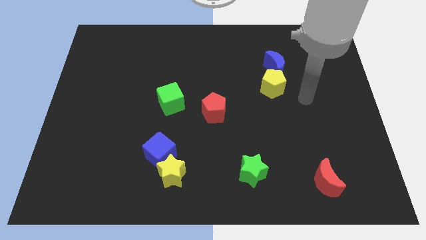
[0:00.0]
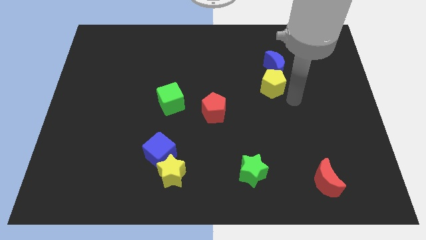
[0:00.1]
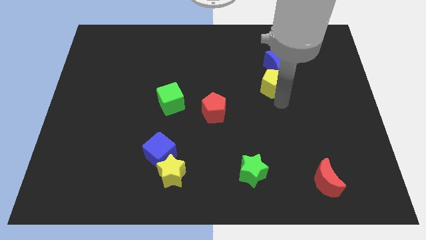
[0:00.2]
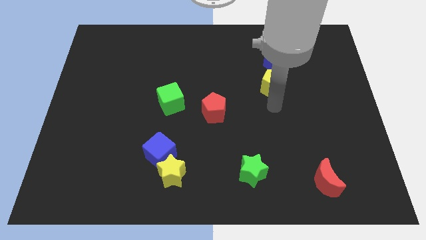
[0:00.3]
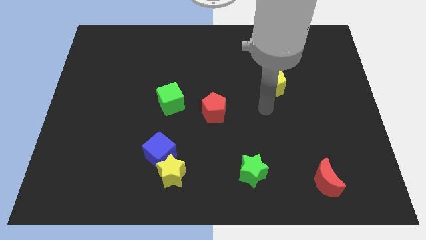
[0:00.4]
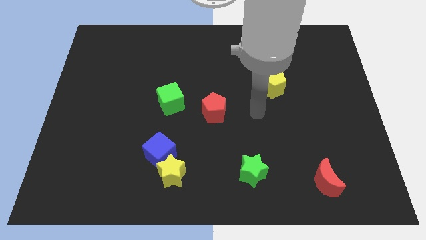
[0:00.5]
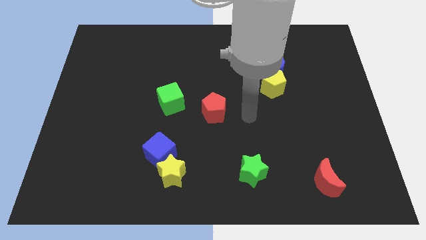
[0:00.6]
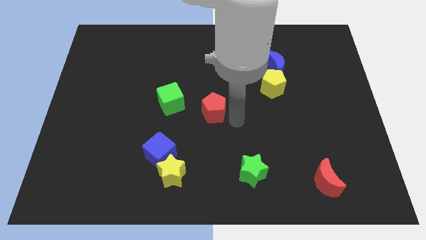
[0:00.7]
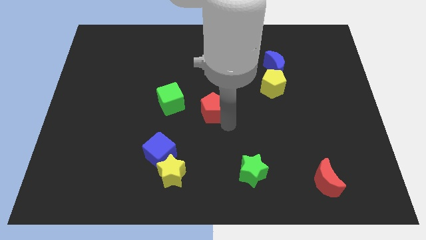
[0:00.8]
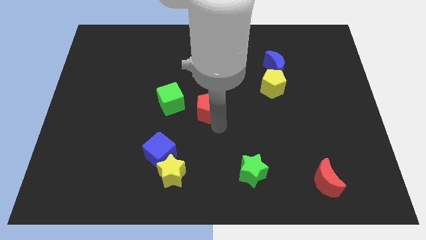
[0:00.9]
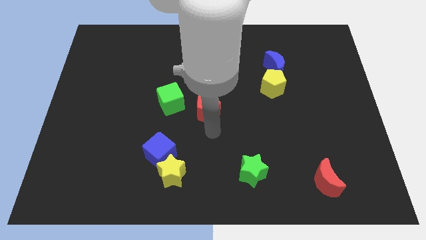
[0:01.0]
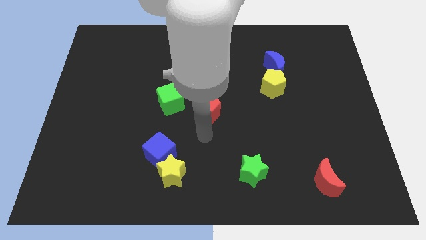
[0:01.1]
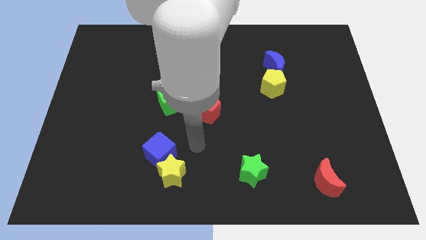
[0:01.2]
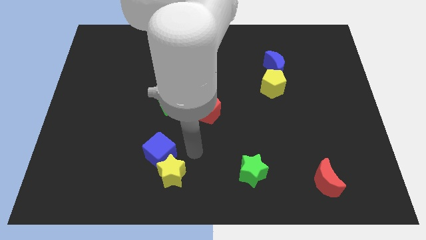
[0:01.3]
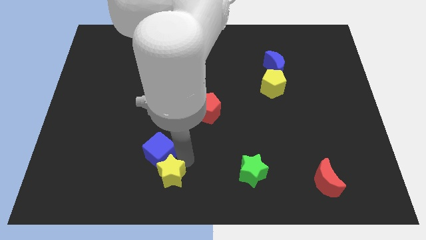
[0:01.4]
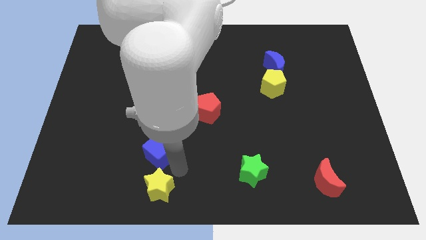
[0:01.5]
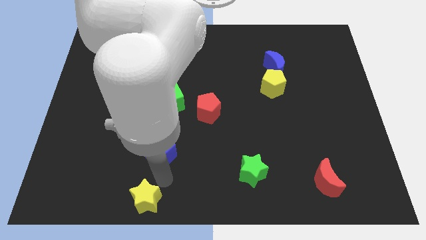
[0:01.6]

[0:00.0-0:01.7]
pull the blue cube apart from the yellow star

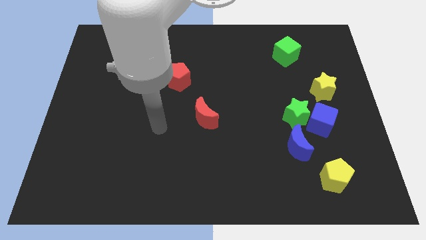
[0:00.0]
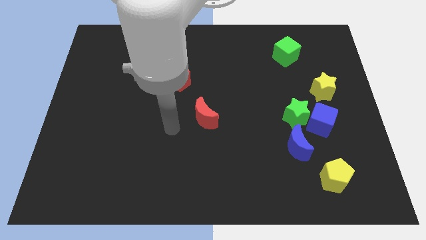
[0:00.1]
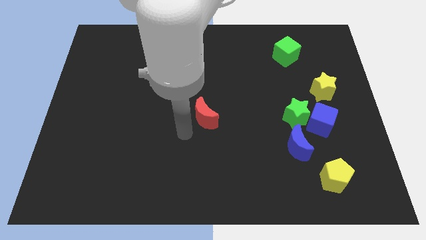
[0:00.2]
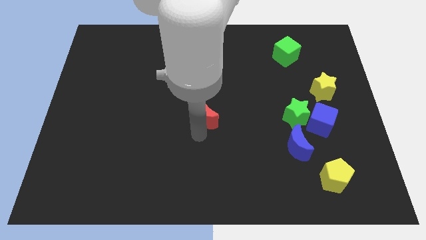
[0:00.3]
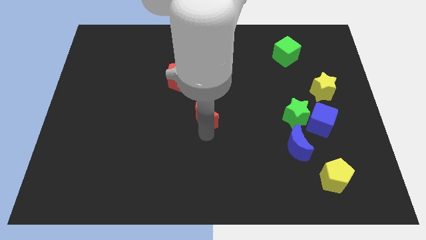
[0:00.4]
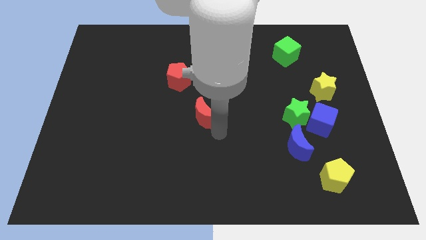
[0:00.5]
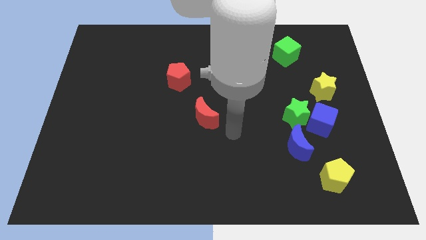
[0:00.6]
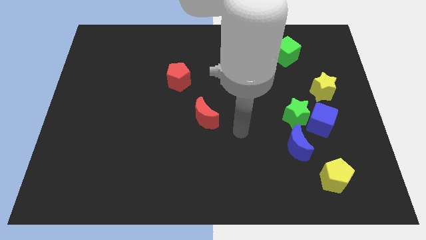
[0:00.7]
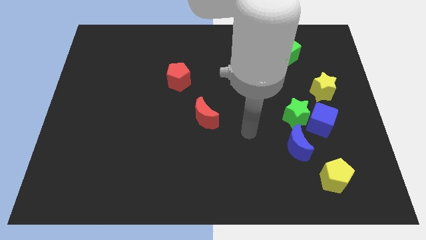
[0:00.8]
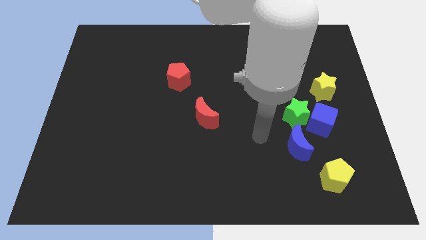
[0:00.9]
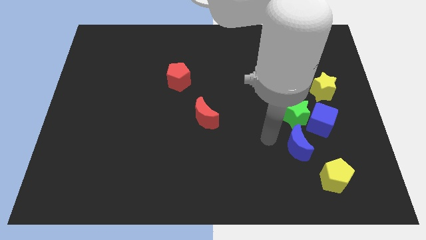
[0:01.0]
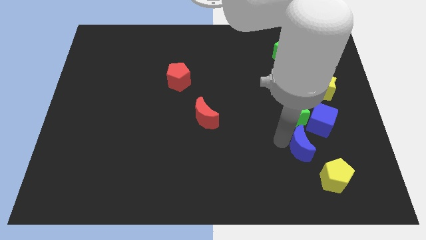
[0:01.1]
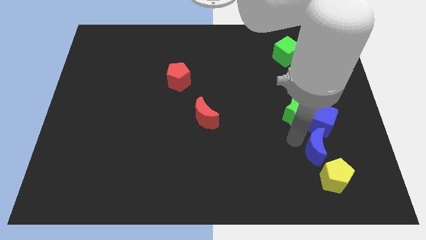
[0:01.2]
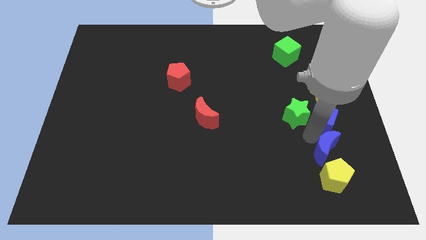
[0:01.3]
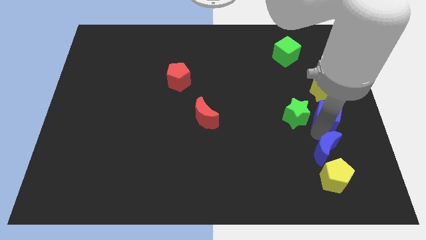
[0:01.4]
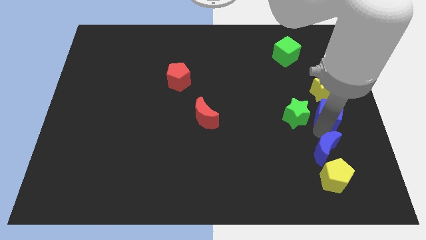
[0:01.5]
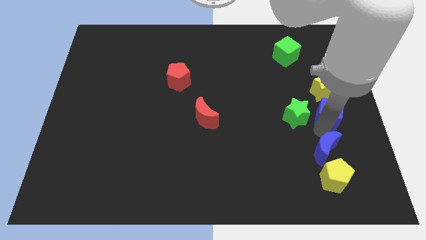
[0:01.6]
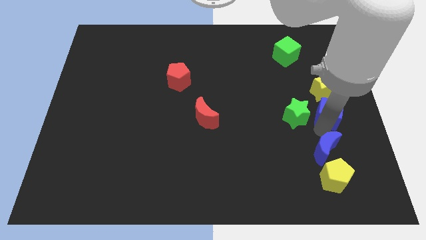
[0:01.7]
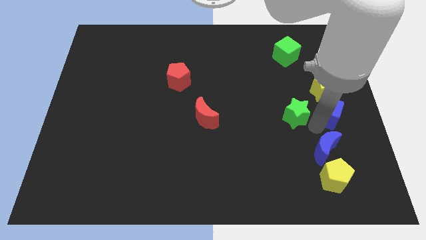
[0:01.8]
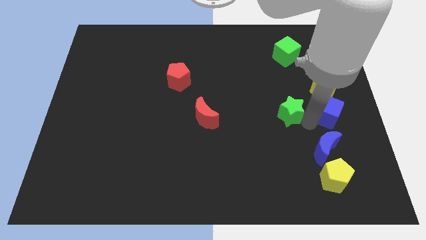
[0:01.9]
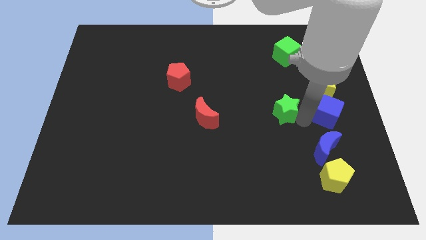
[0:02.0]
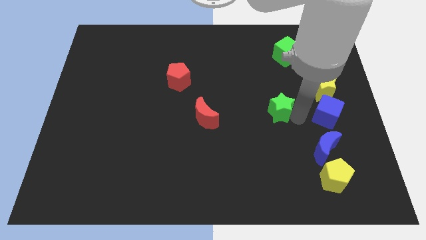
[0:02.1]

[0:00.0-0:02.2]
pull the green star apart from the blue cube and blue moon

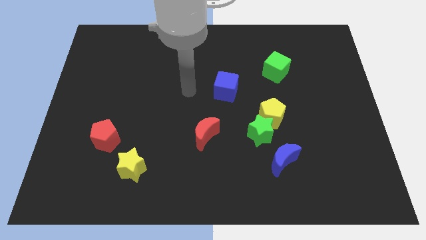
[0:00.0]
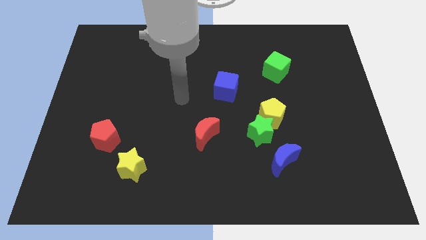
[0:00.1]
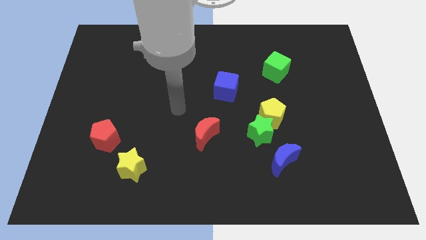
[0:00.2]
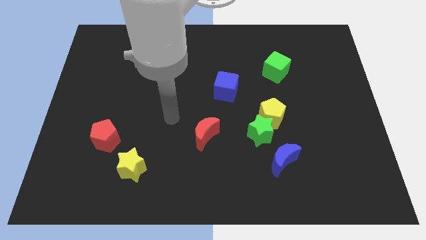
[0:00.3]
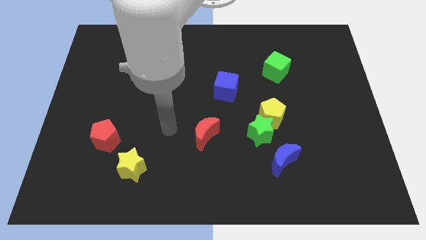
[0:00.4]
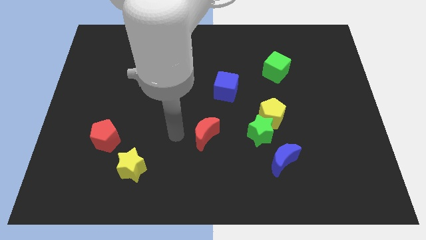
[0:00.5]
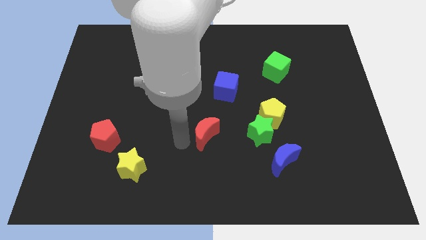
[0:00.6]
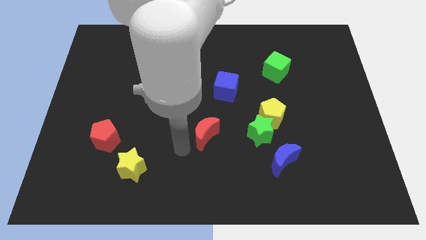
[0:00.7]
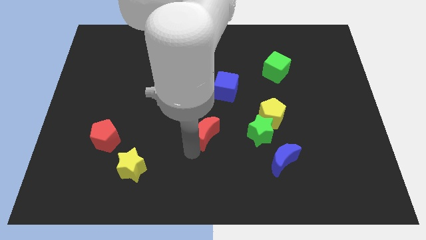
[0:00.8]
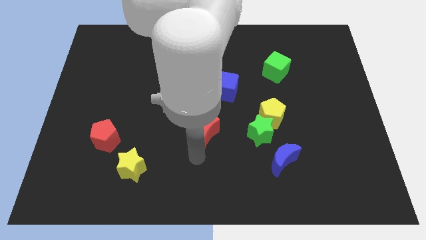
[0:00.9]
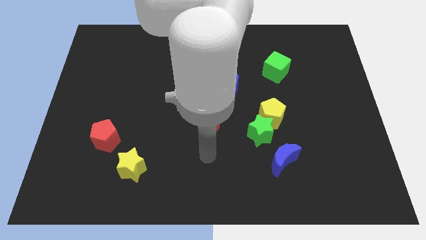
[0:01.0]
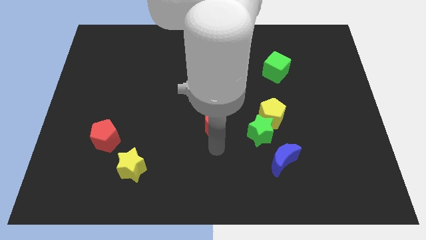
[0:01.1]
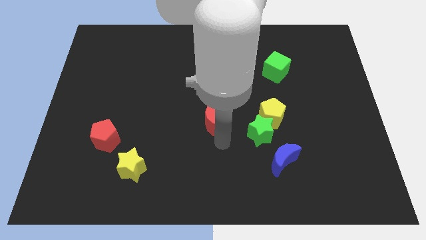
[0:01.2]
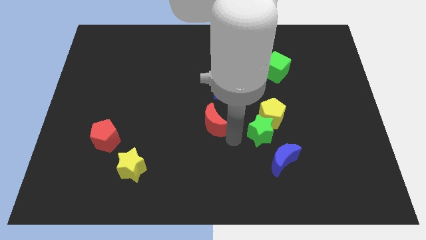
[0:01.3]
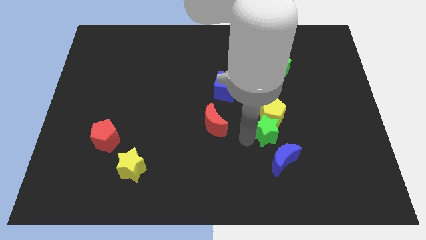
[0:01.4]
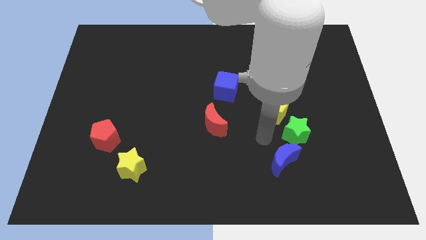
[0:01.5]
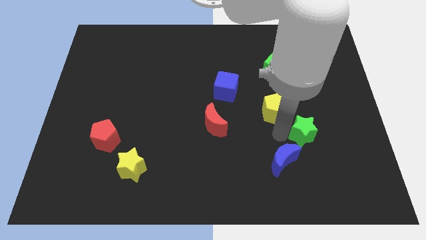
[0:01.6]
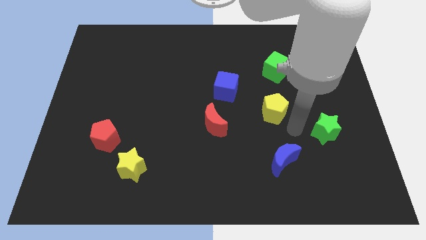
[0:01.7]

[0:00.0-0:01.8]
move the yellow pentagon away from the green star

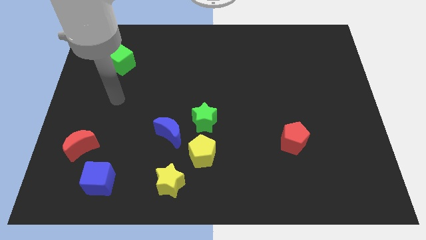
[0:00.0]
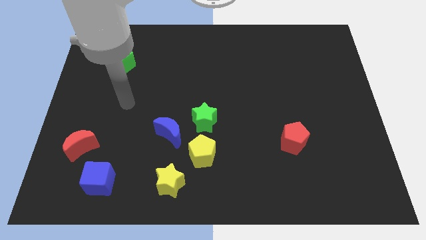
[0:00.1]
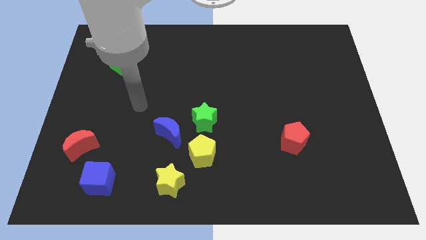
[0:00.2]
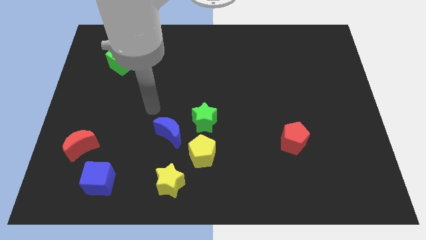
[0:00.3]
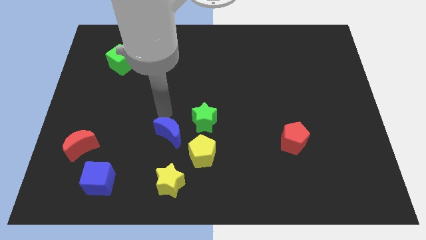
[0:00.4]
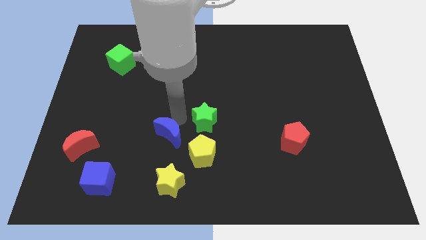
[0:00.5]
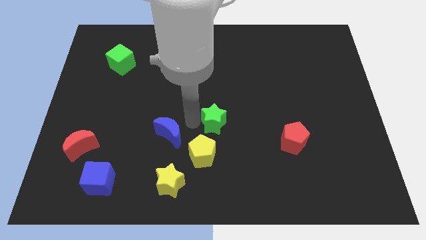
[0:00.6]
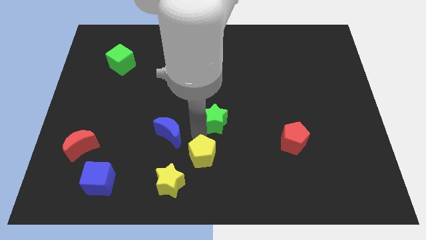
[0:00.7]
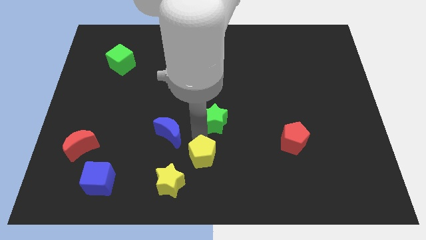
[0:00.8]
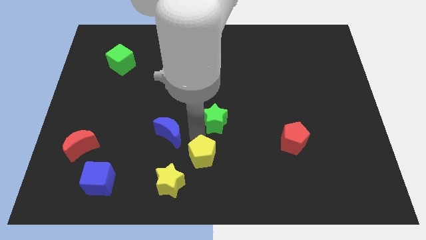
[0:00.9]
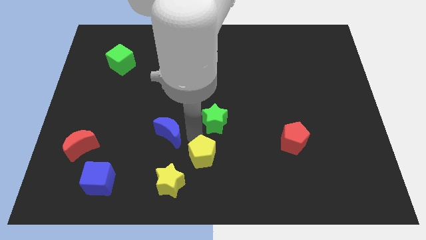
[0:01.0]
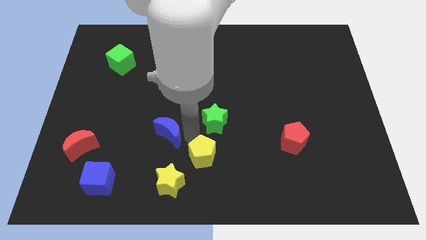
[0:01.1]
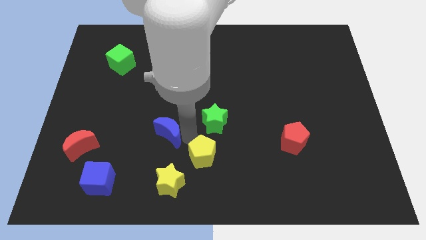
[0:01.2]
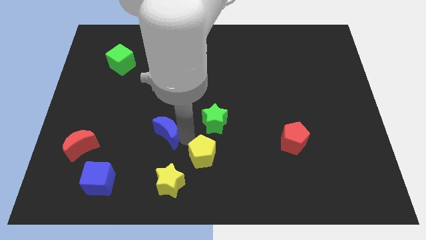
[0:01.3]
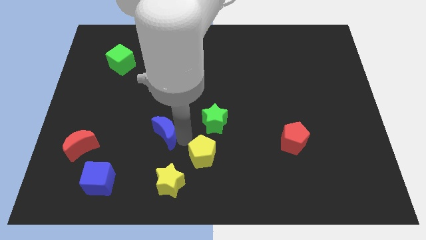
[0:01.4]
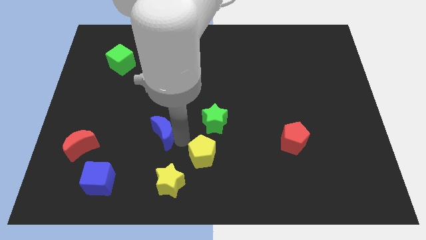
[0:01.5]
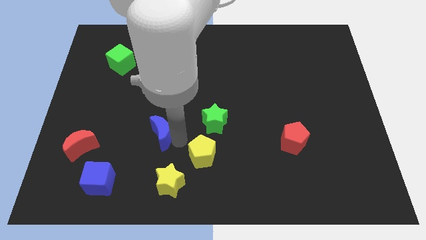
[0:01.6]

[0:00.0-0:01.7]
pull the blue moon apart from the green star and yellow pentagon

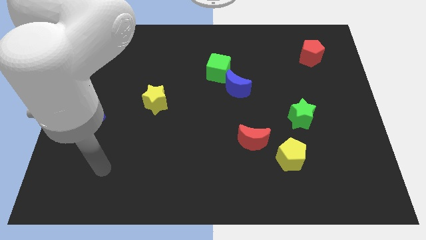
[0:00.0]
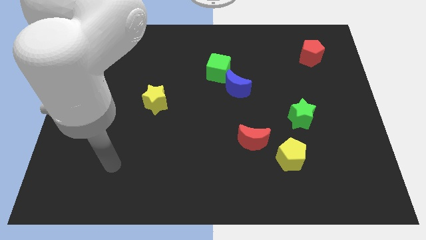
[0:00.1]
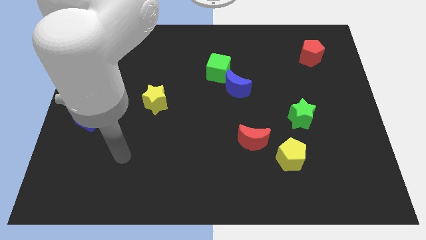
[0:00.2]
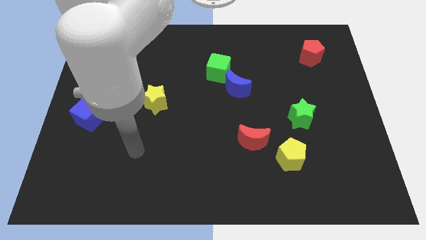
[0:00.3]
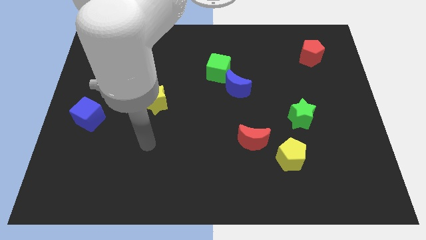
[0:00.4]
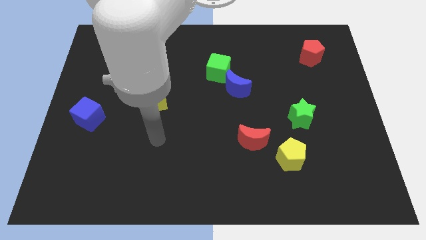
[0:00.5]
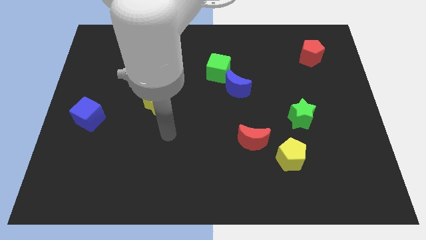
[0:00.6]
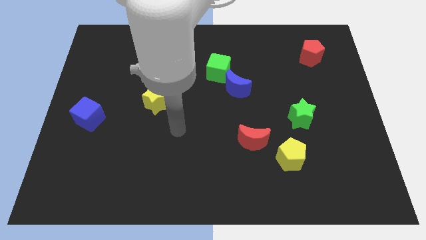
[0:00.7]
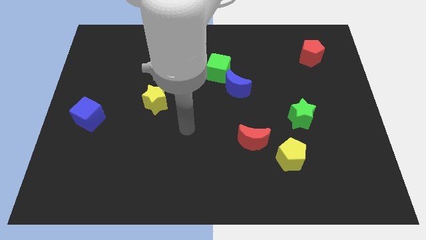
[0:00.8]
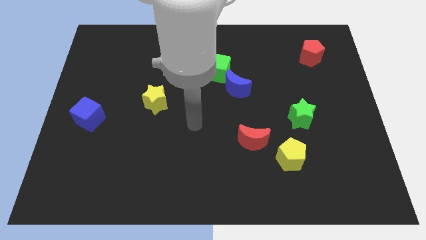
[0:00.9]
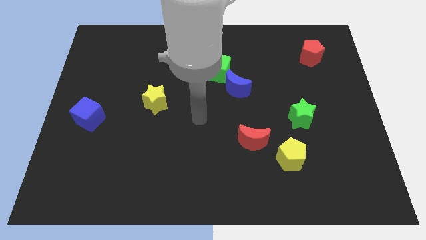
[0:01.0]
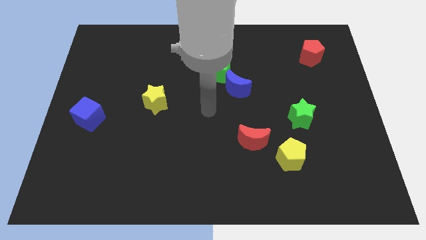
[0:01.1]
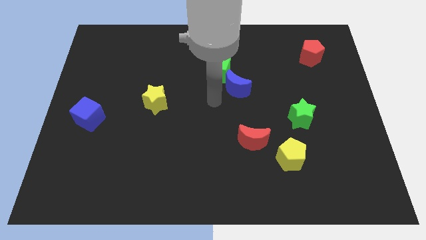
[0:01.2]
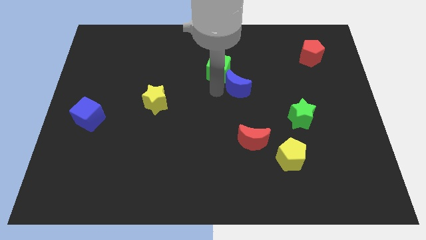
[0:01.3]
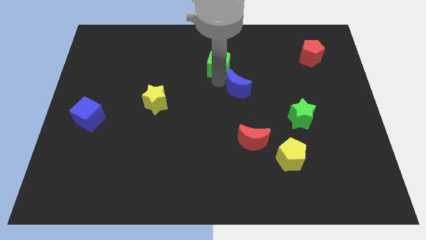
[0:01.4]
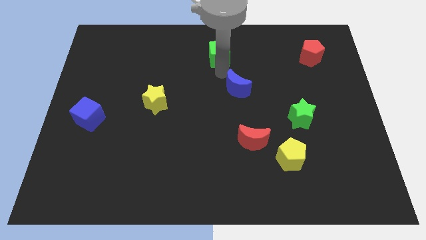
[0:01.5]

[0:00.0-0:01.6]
pull the blue moon apart from the green cube

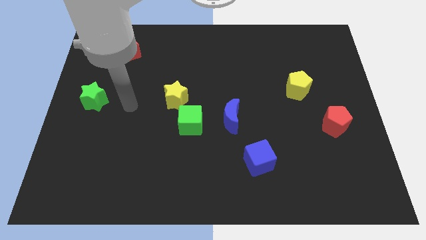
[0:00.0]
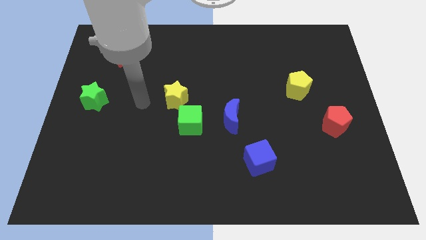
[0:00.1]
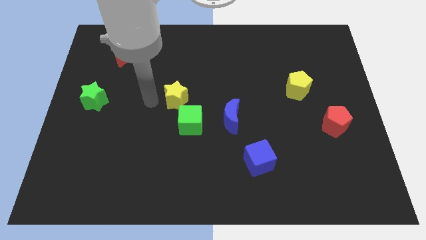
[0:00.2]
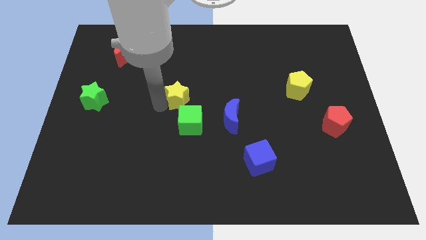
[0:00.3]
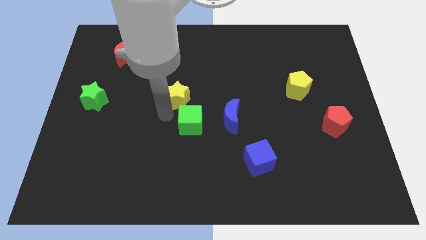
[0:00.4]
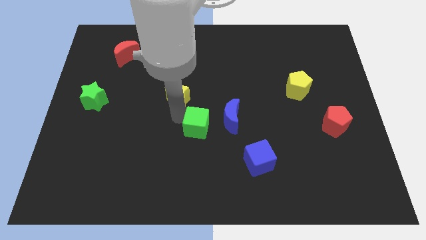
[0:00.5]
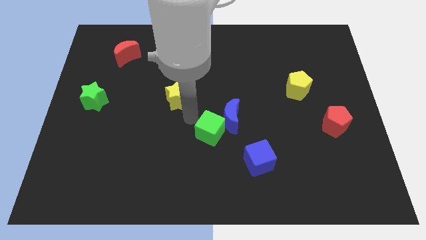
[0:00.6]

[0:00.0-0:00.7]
pull the yellow star apart from the green cube
